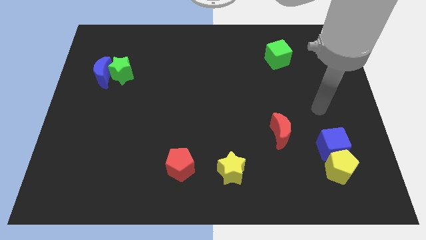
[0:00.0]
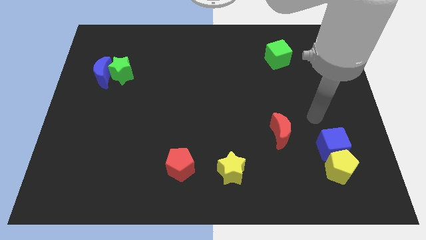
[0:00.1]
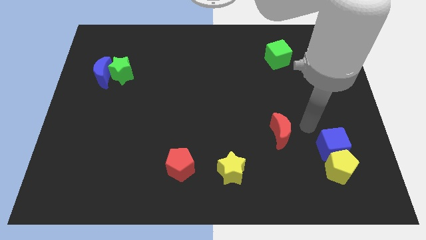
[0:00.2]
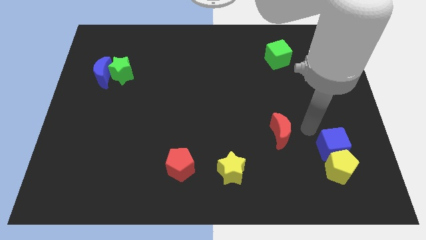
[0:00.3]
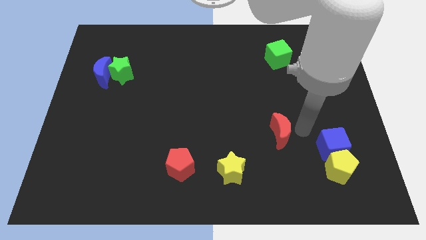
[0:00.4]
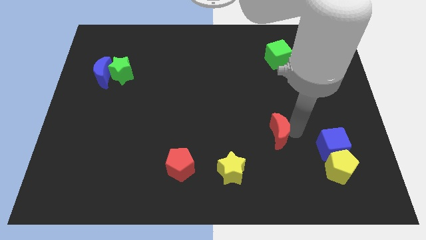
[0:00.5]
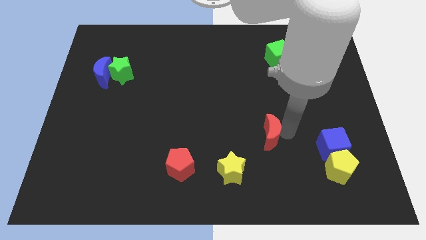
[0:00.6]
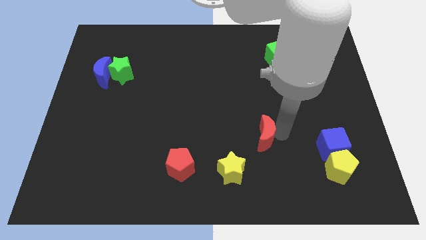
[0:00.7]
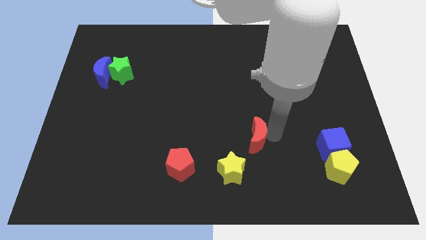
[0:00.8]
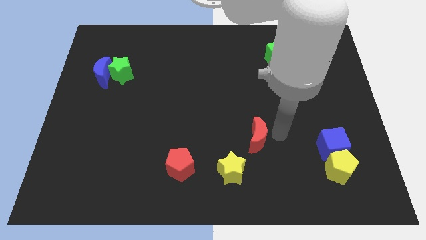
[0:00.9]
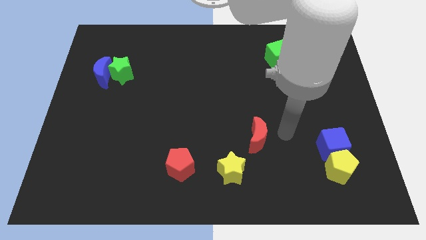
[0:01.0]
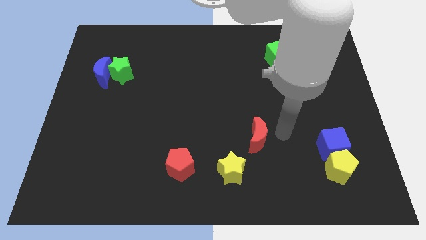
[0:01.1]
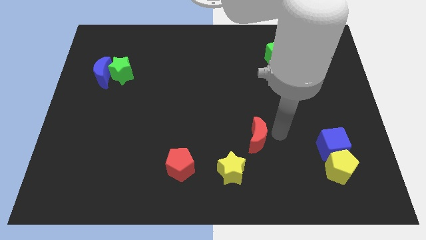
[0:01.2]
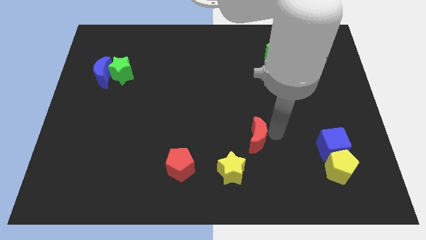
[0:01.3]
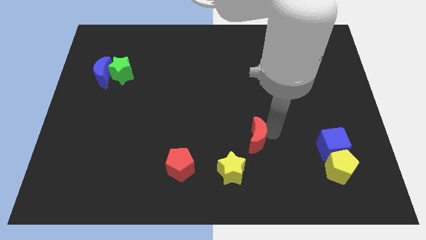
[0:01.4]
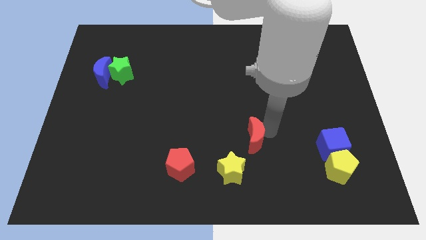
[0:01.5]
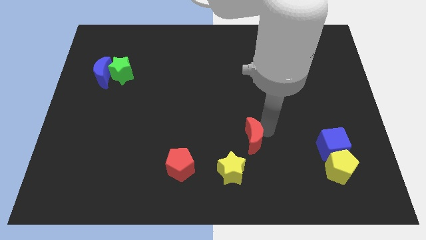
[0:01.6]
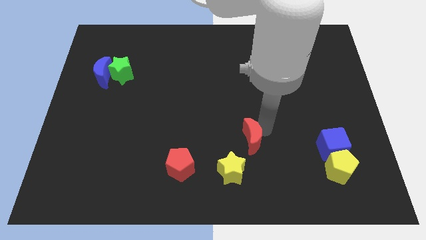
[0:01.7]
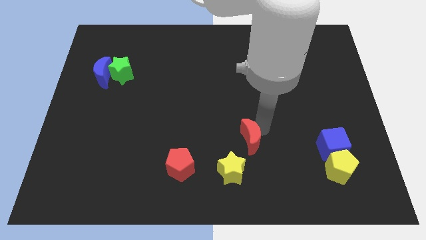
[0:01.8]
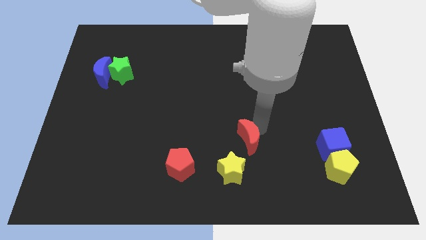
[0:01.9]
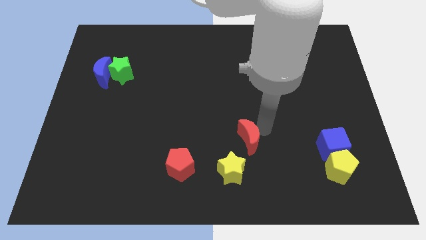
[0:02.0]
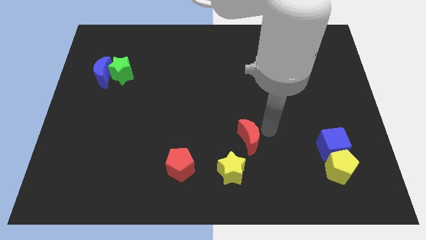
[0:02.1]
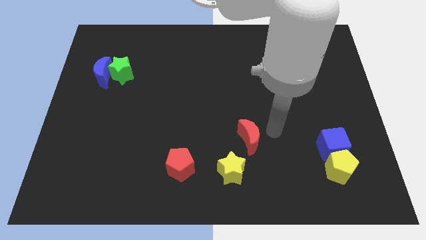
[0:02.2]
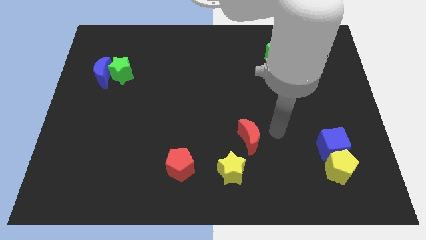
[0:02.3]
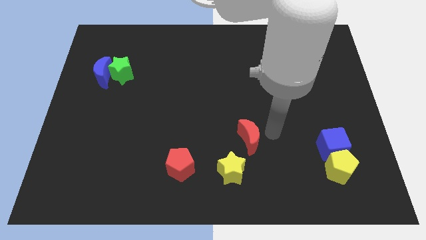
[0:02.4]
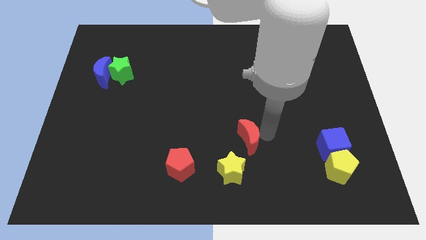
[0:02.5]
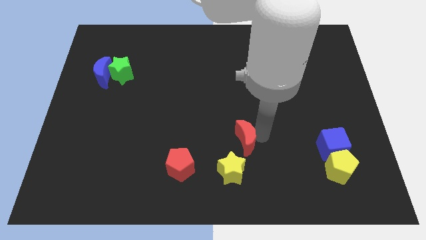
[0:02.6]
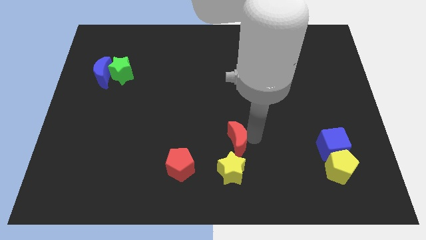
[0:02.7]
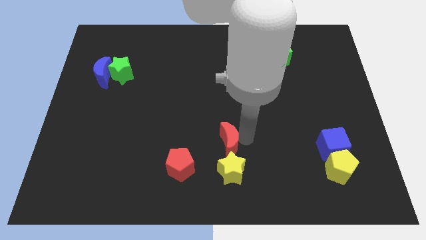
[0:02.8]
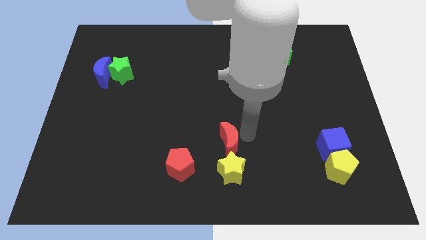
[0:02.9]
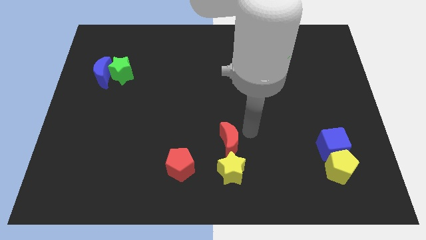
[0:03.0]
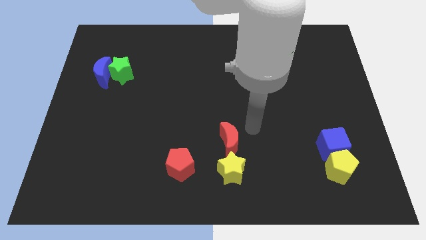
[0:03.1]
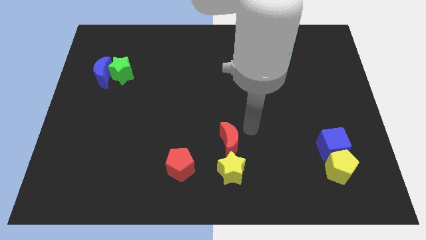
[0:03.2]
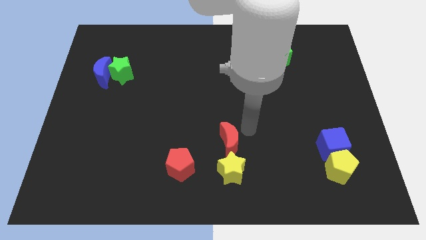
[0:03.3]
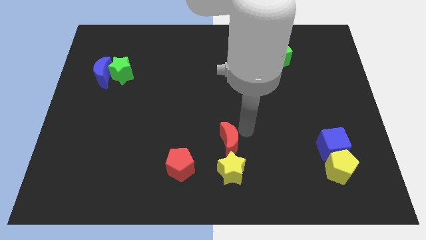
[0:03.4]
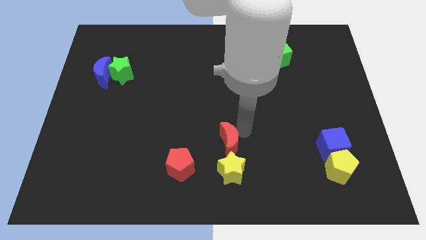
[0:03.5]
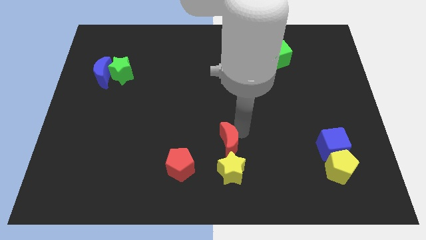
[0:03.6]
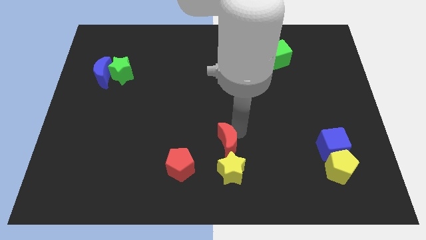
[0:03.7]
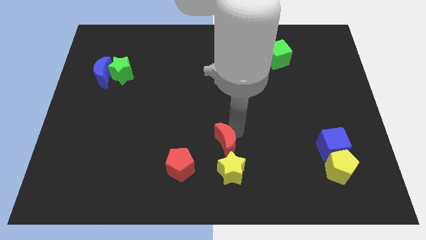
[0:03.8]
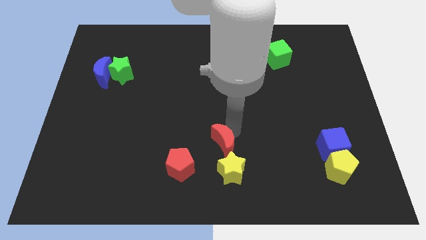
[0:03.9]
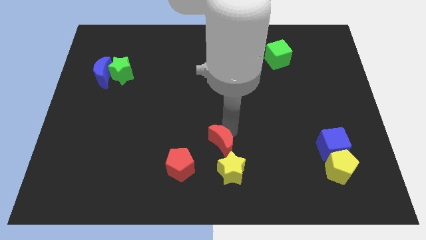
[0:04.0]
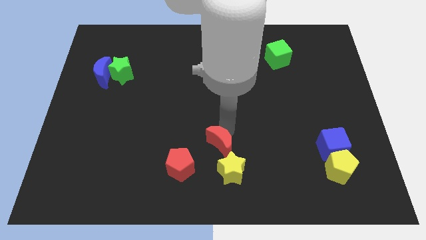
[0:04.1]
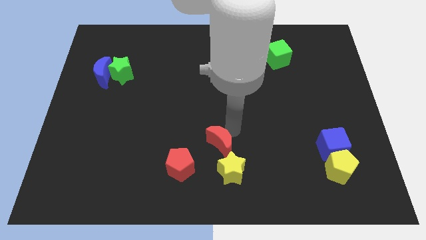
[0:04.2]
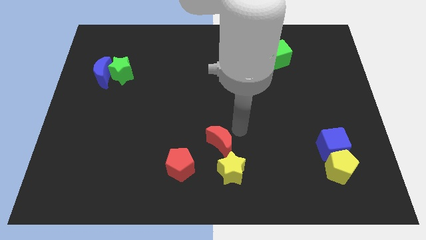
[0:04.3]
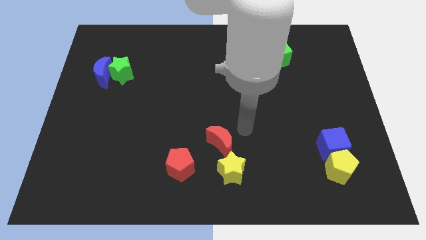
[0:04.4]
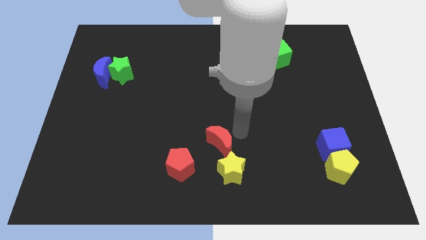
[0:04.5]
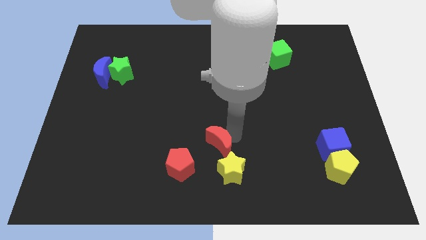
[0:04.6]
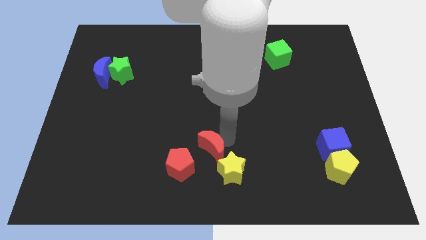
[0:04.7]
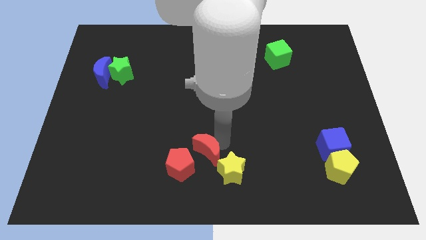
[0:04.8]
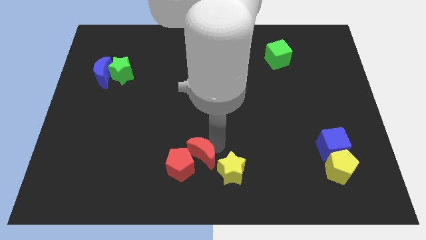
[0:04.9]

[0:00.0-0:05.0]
push the red moon towards the red pentagon

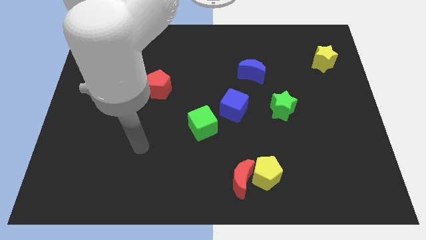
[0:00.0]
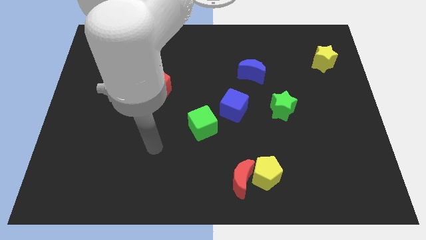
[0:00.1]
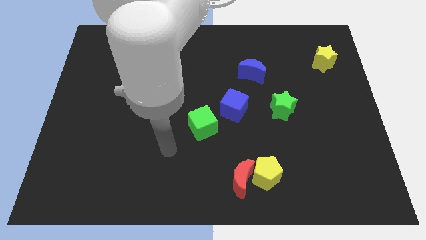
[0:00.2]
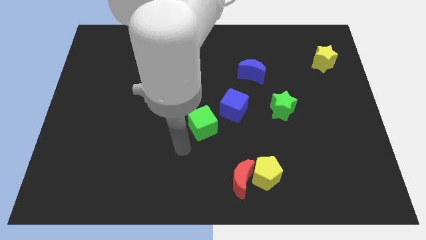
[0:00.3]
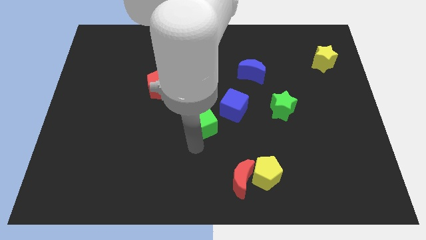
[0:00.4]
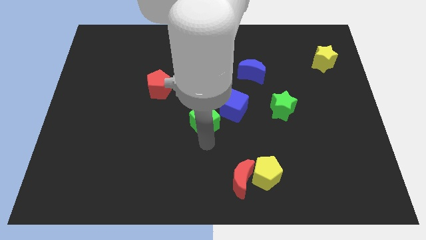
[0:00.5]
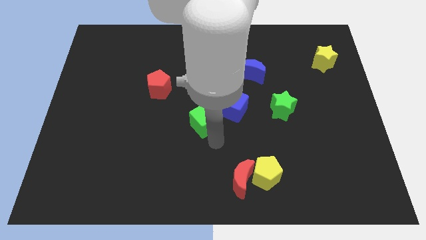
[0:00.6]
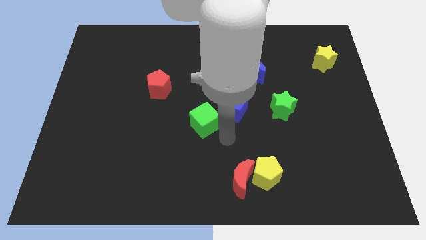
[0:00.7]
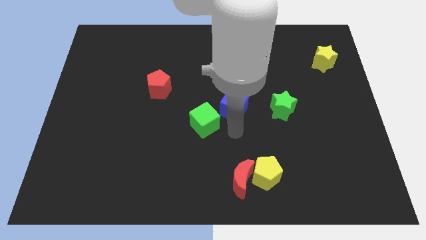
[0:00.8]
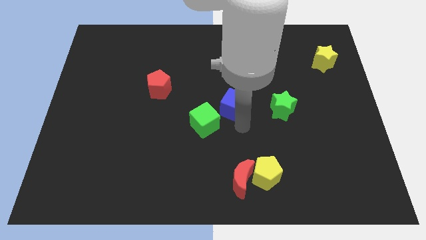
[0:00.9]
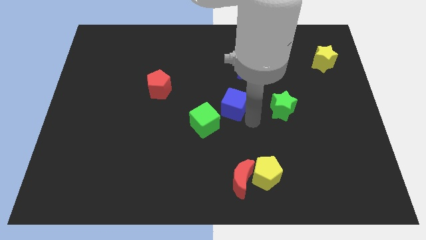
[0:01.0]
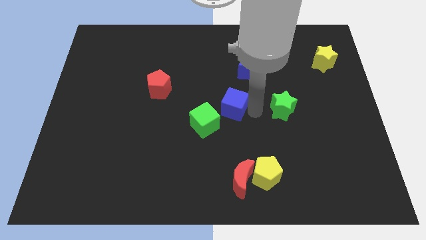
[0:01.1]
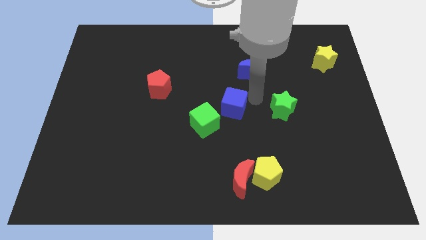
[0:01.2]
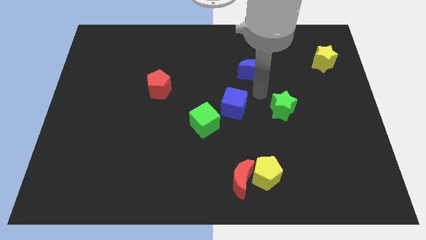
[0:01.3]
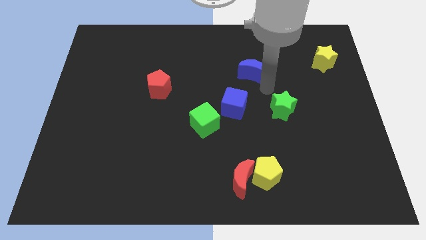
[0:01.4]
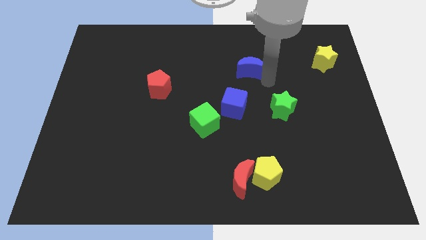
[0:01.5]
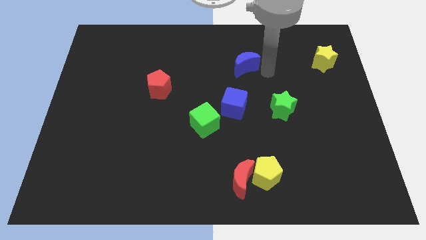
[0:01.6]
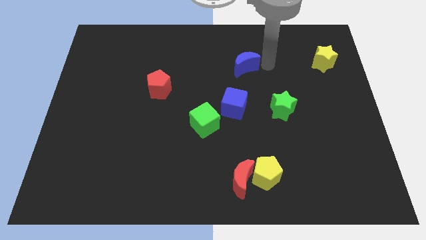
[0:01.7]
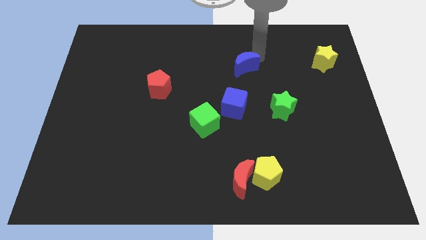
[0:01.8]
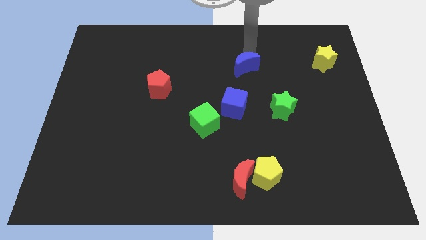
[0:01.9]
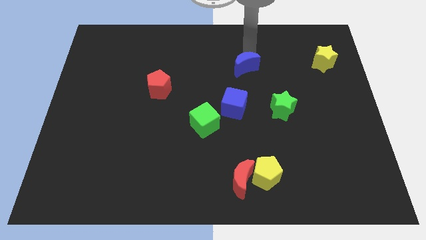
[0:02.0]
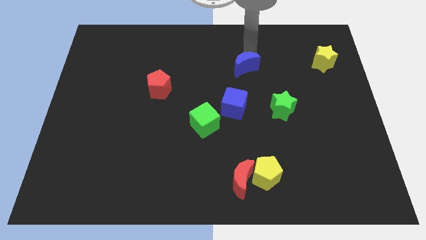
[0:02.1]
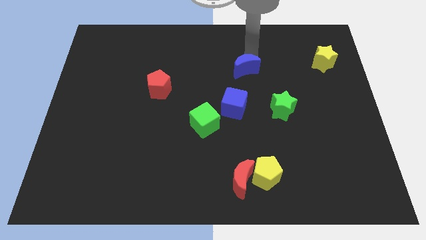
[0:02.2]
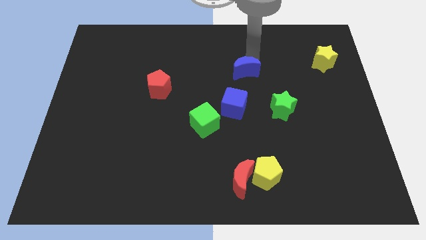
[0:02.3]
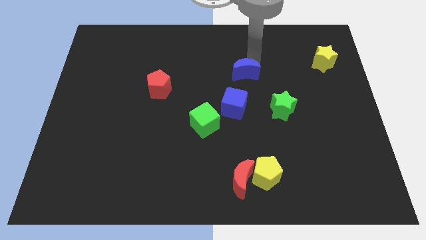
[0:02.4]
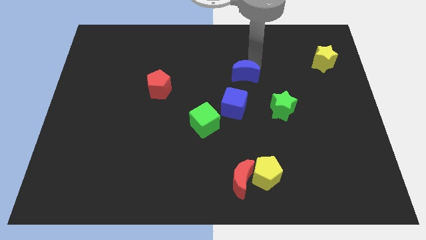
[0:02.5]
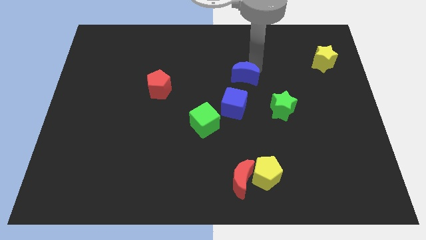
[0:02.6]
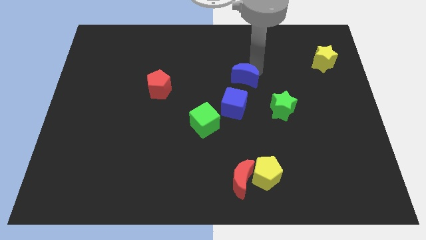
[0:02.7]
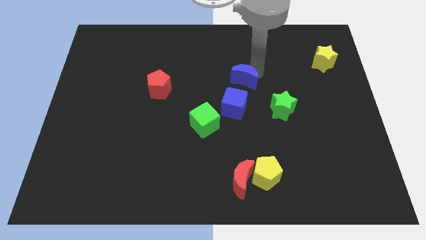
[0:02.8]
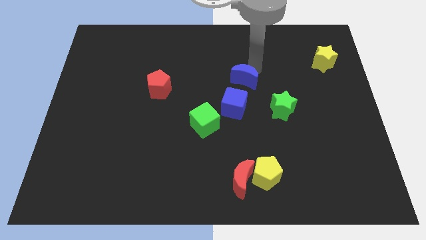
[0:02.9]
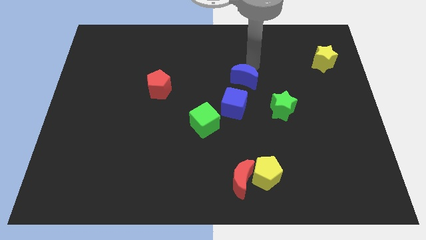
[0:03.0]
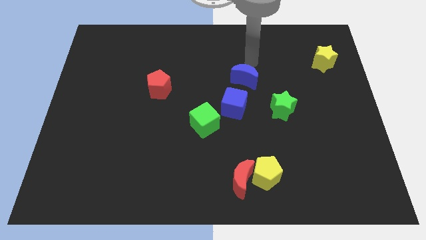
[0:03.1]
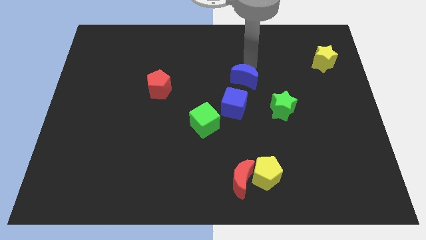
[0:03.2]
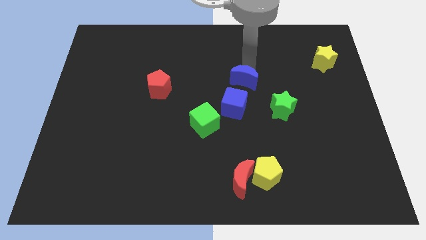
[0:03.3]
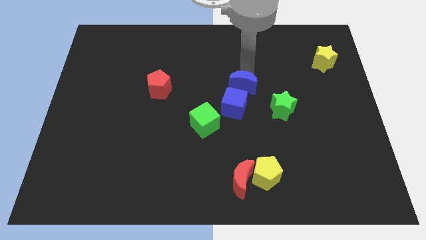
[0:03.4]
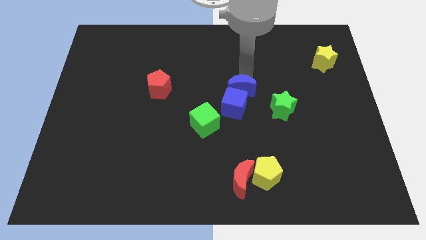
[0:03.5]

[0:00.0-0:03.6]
slide the blue moon close to the blue cube
